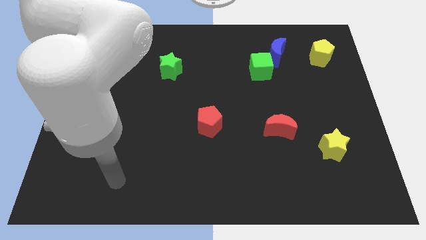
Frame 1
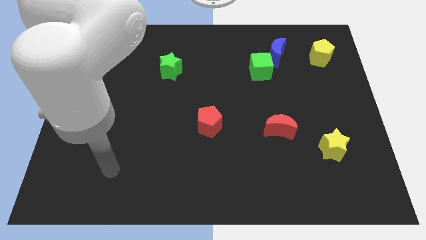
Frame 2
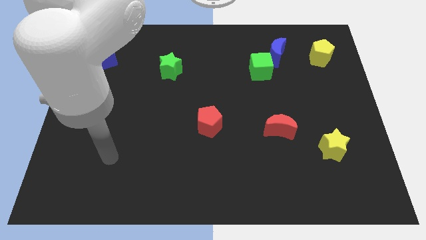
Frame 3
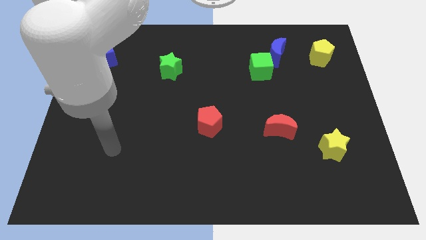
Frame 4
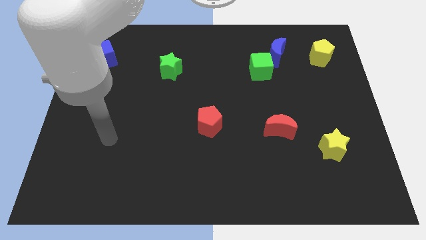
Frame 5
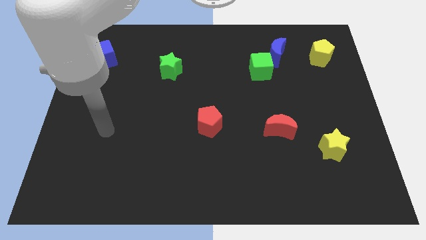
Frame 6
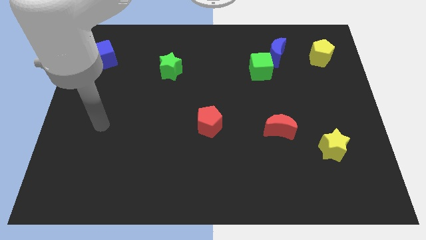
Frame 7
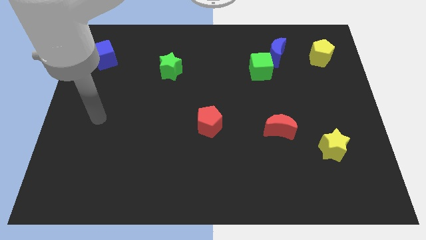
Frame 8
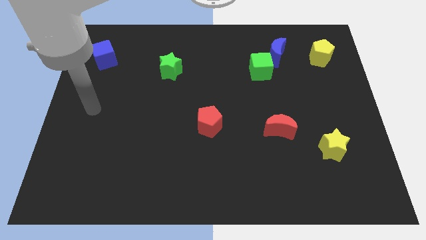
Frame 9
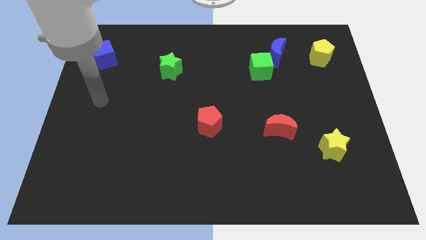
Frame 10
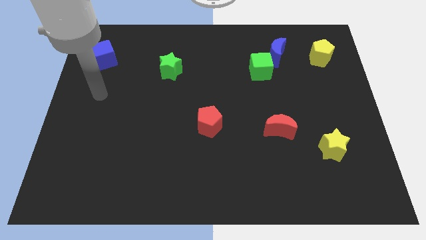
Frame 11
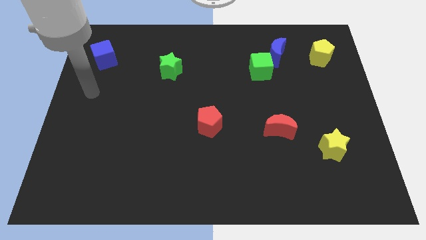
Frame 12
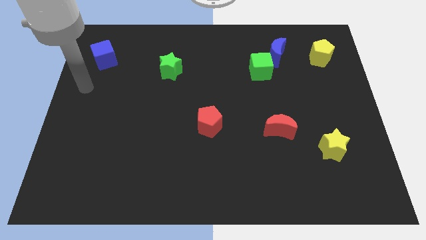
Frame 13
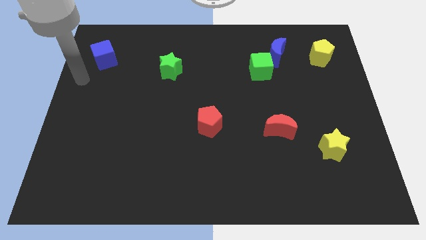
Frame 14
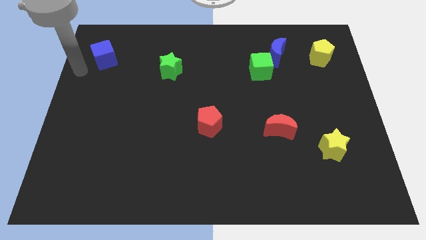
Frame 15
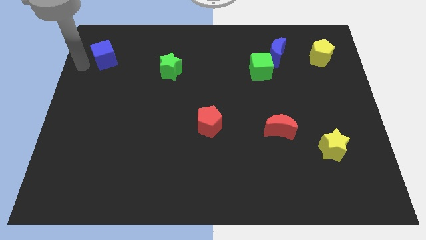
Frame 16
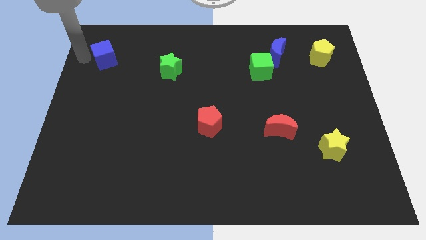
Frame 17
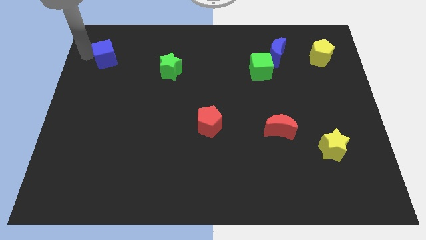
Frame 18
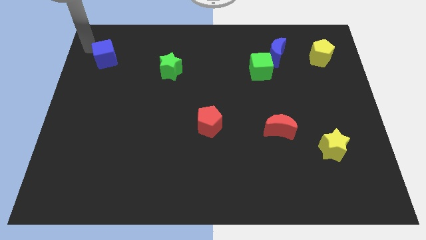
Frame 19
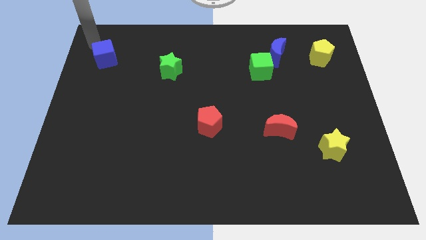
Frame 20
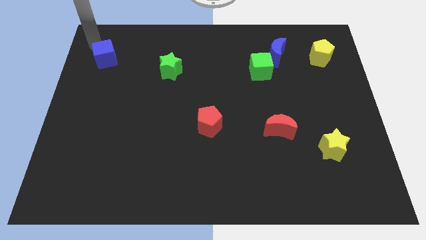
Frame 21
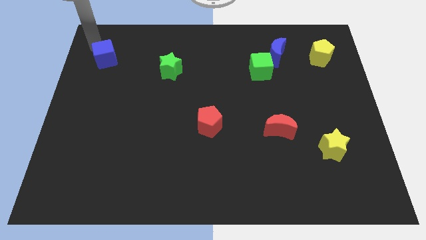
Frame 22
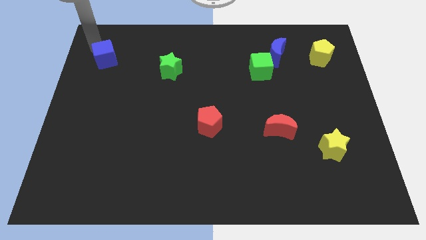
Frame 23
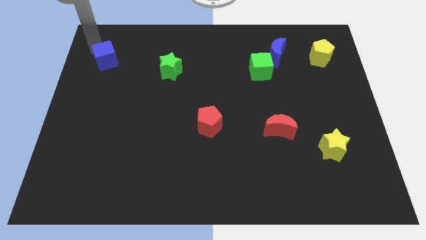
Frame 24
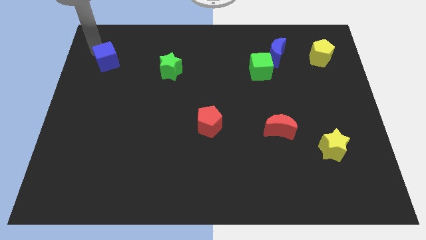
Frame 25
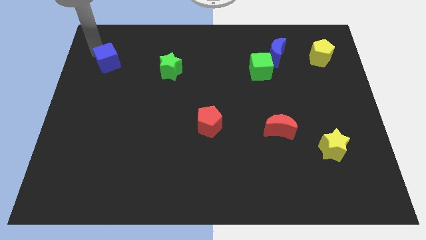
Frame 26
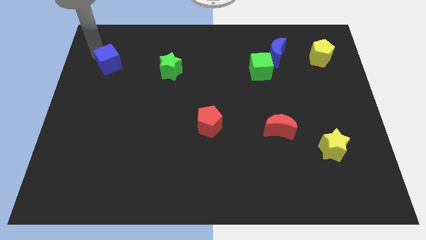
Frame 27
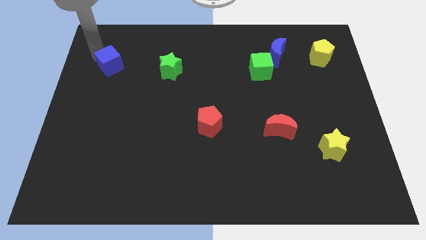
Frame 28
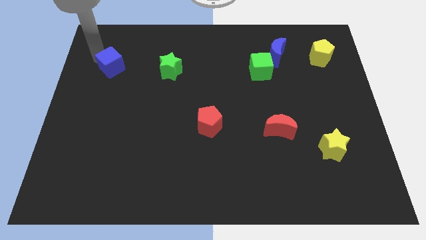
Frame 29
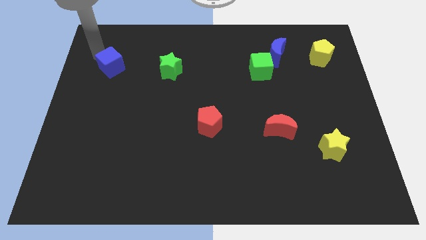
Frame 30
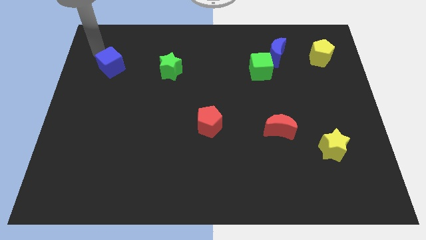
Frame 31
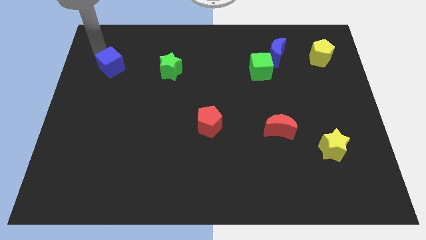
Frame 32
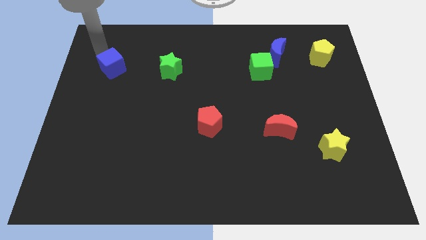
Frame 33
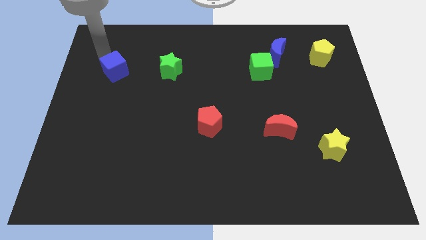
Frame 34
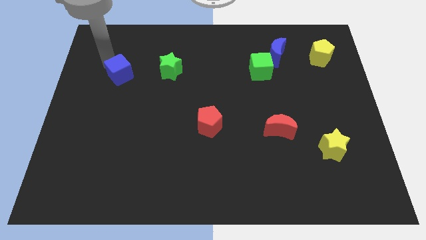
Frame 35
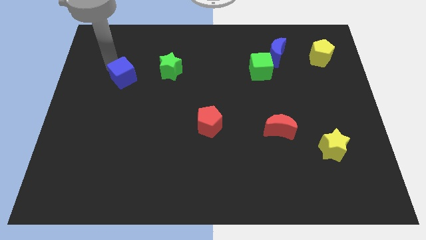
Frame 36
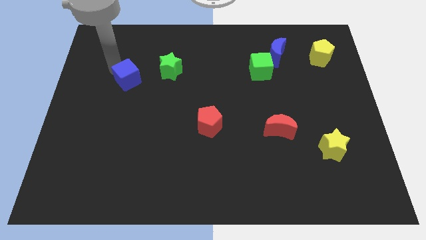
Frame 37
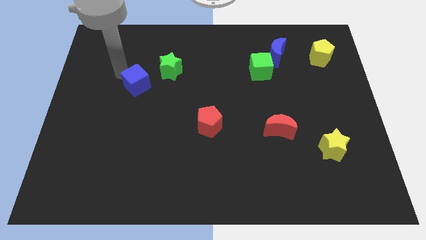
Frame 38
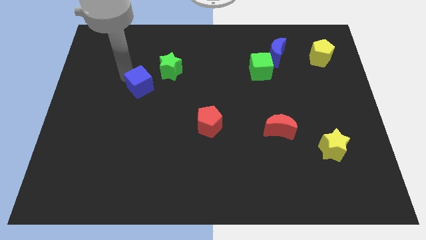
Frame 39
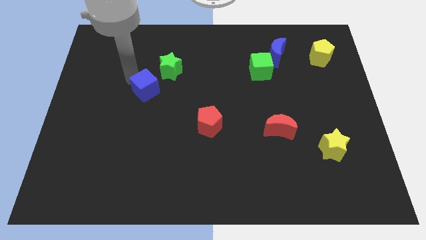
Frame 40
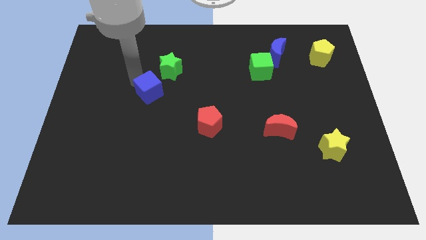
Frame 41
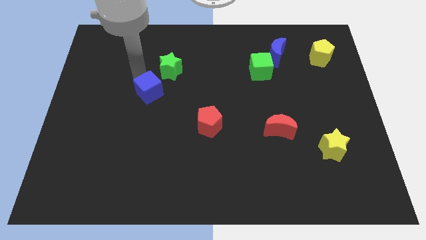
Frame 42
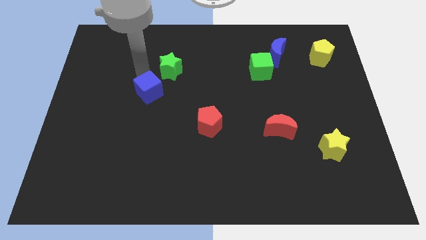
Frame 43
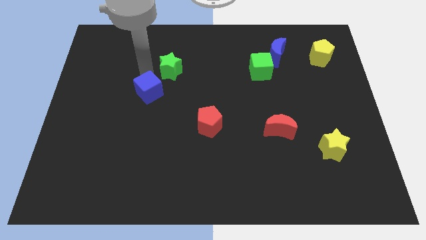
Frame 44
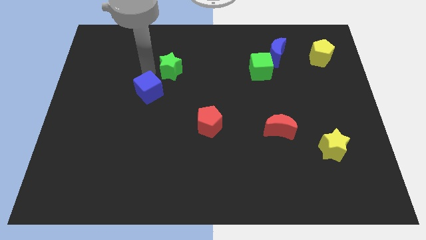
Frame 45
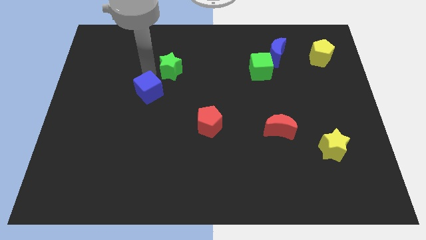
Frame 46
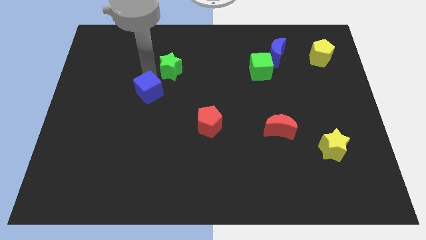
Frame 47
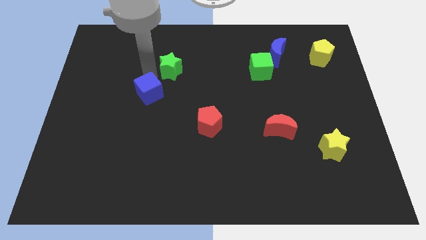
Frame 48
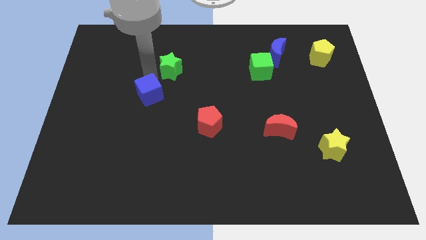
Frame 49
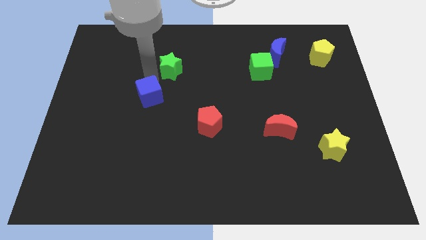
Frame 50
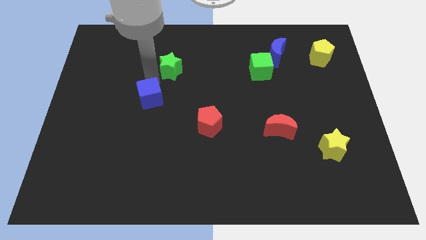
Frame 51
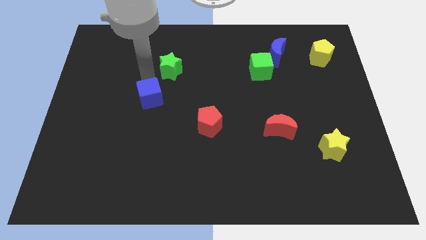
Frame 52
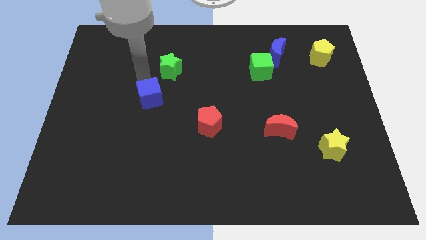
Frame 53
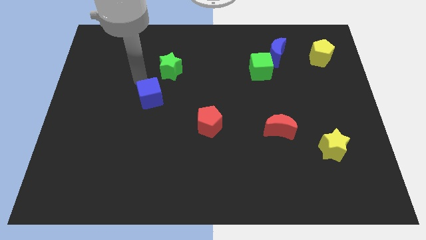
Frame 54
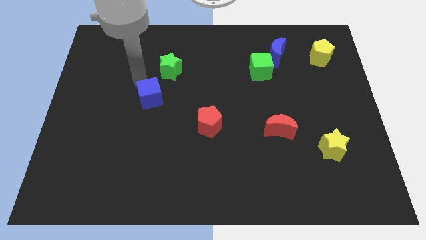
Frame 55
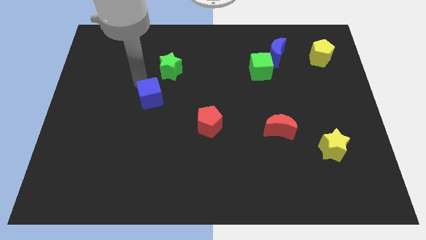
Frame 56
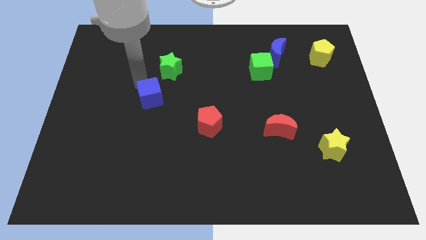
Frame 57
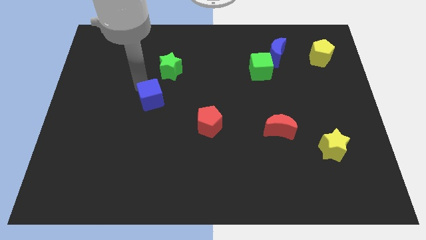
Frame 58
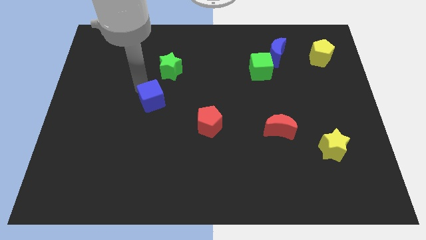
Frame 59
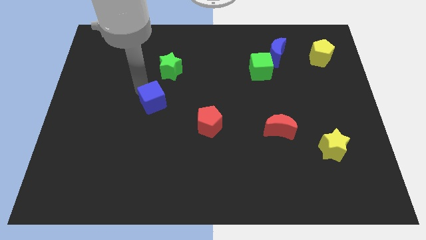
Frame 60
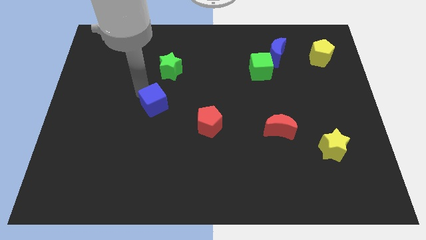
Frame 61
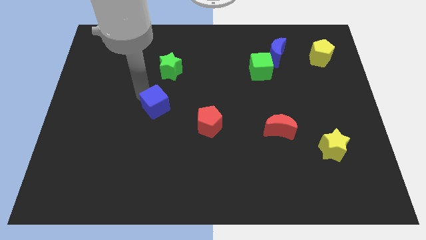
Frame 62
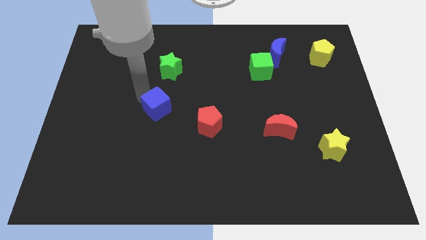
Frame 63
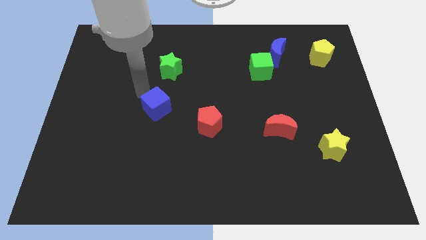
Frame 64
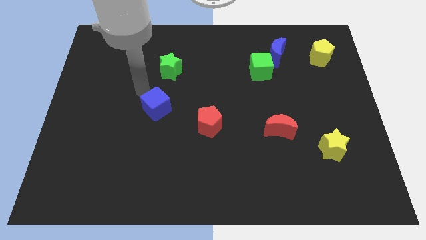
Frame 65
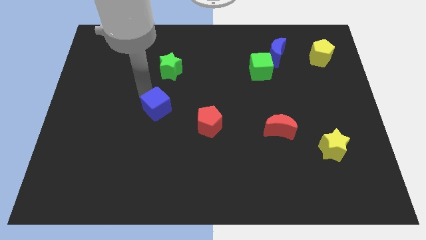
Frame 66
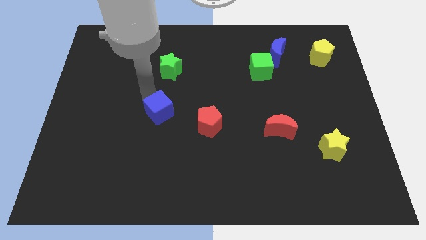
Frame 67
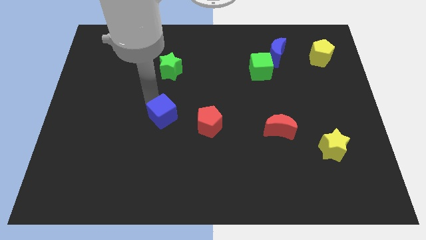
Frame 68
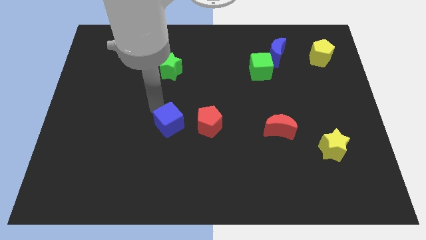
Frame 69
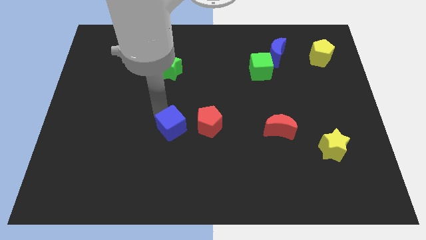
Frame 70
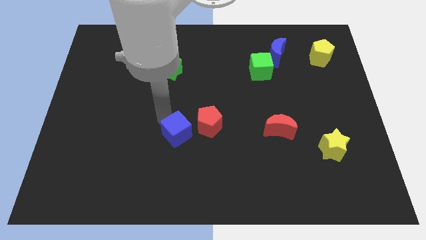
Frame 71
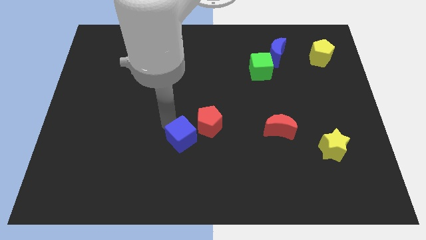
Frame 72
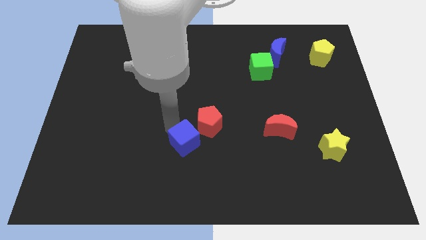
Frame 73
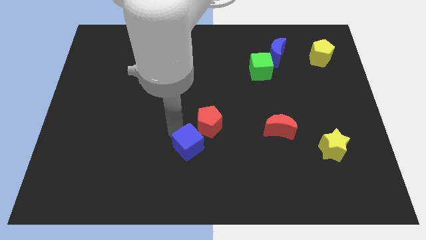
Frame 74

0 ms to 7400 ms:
slide the blue cube to the bottom of the red pentagon
